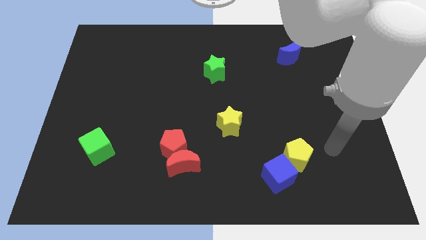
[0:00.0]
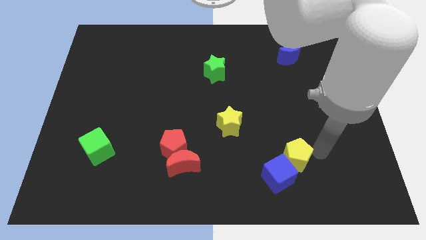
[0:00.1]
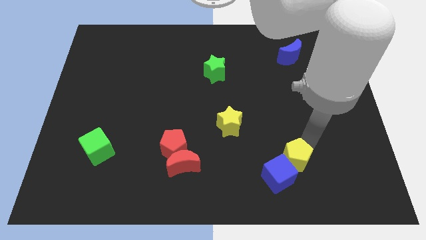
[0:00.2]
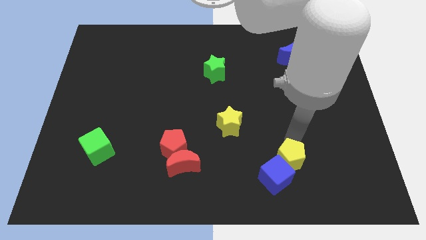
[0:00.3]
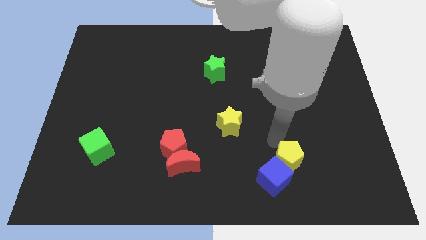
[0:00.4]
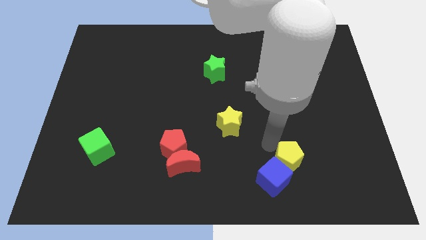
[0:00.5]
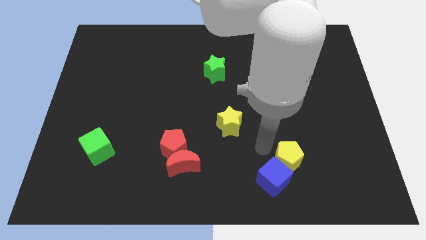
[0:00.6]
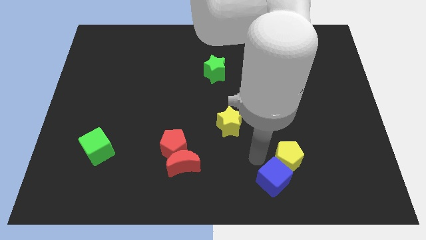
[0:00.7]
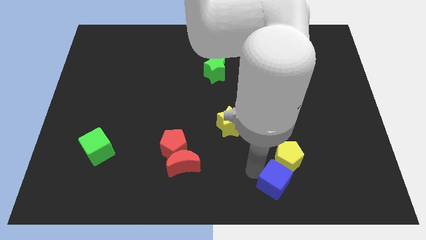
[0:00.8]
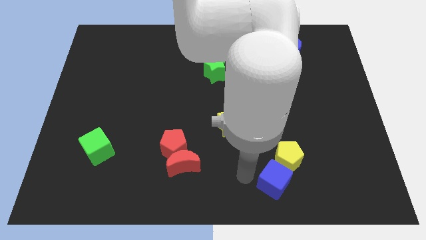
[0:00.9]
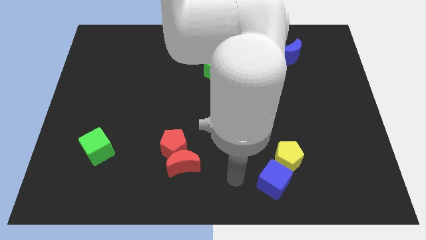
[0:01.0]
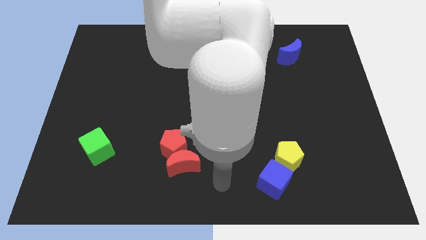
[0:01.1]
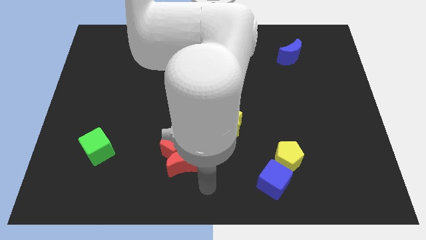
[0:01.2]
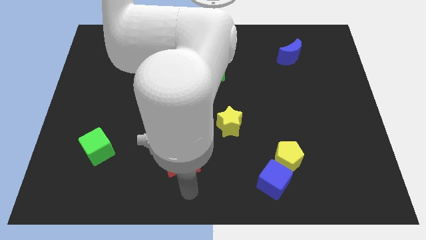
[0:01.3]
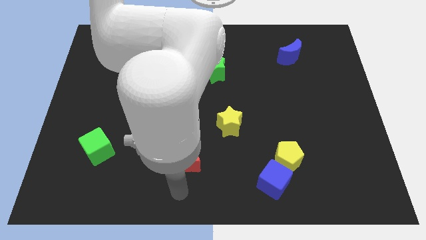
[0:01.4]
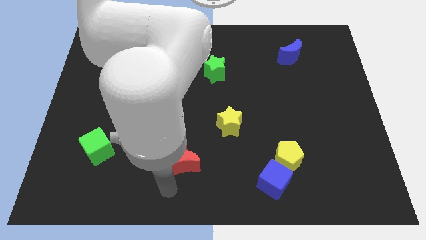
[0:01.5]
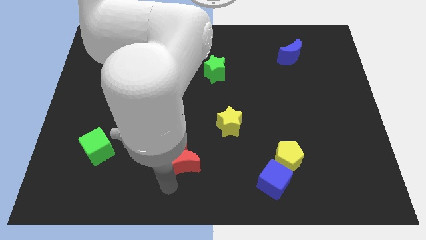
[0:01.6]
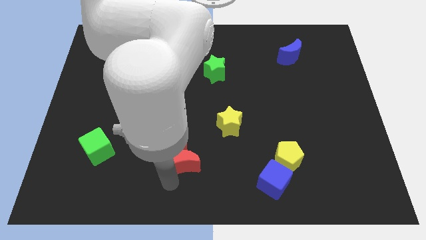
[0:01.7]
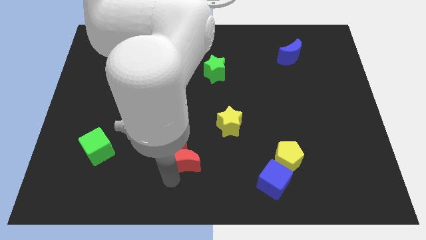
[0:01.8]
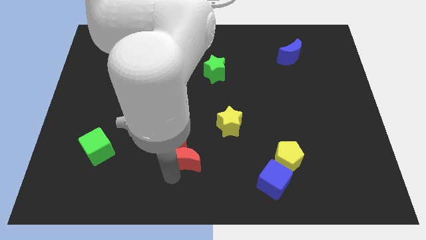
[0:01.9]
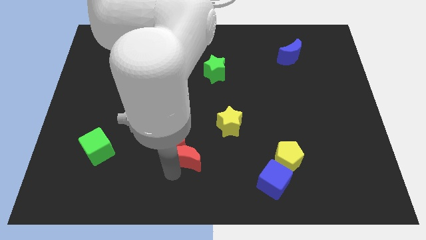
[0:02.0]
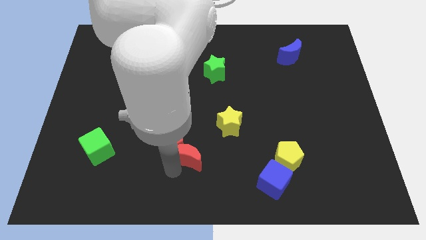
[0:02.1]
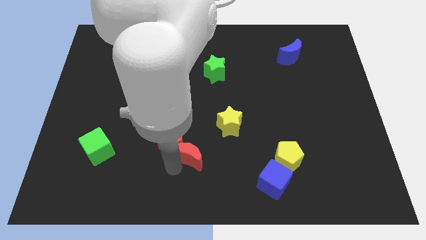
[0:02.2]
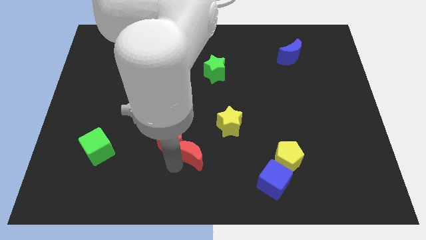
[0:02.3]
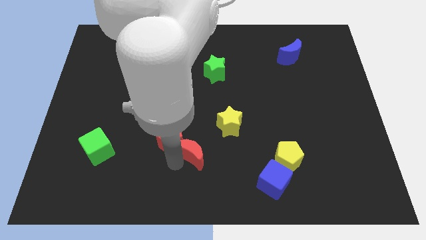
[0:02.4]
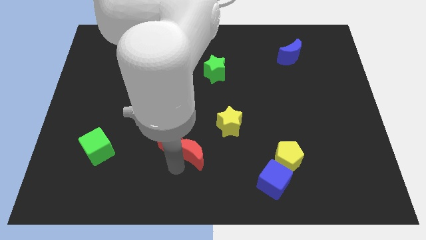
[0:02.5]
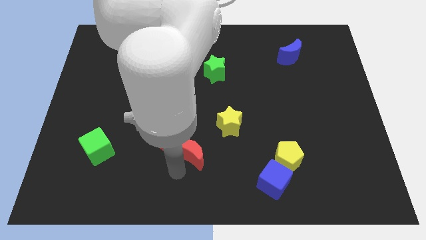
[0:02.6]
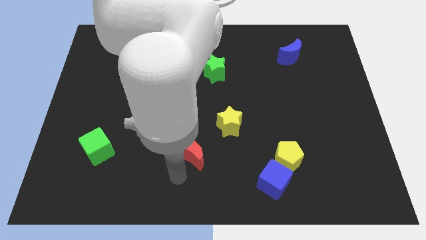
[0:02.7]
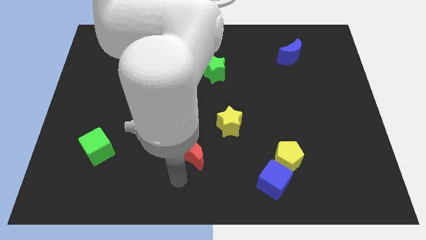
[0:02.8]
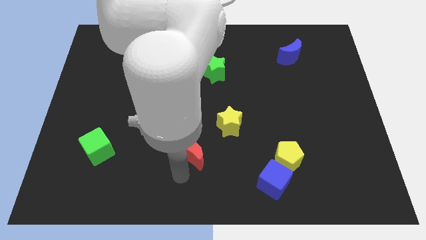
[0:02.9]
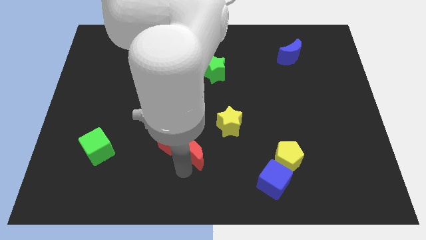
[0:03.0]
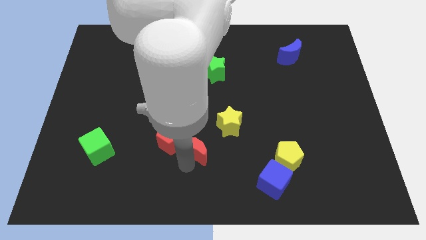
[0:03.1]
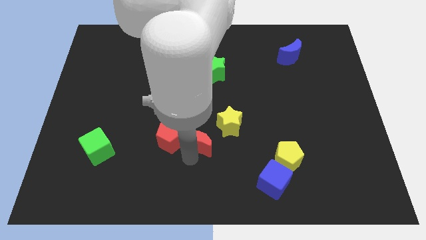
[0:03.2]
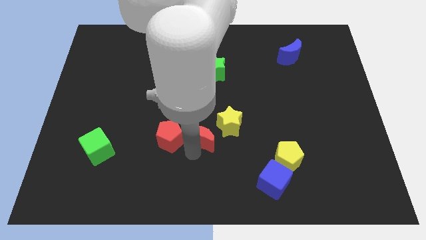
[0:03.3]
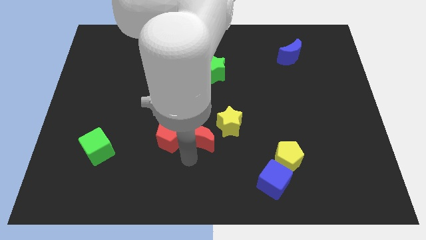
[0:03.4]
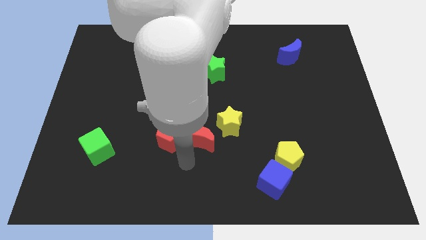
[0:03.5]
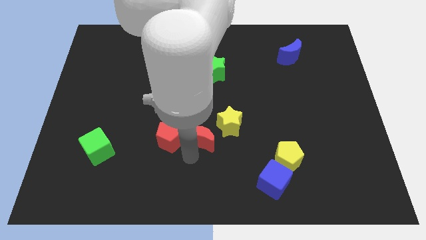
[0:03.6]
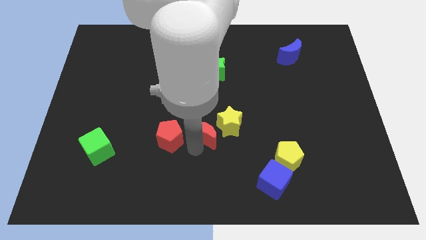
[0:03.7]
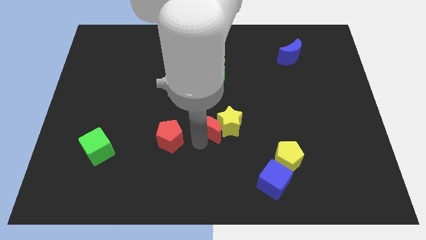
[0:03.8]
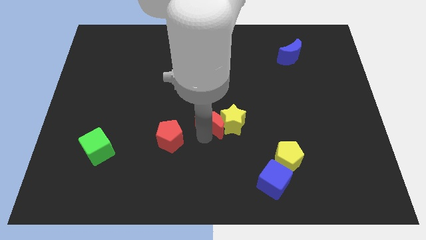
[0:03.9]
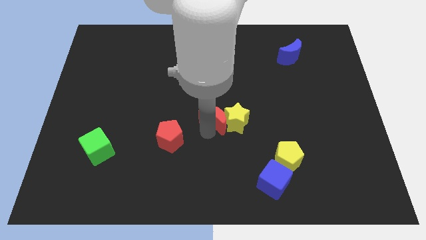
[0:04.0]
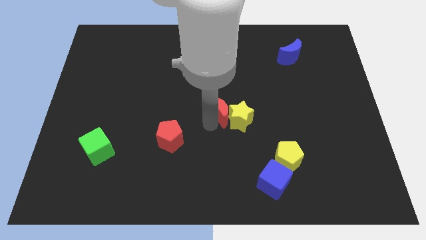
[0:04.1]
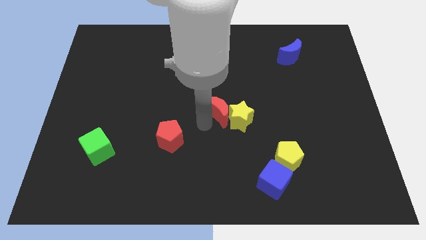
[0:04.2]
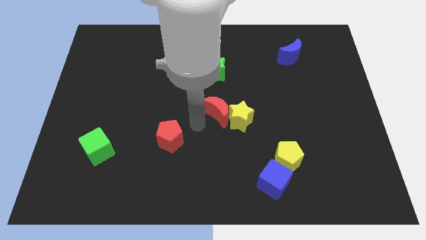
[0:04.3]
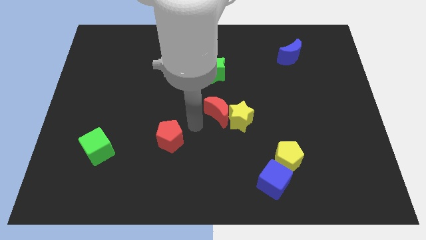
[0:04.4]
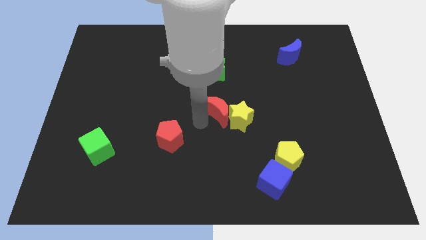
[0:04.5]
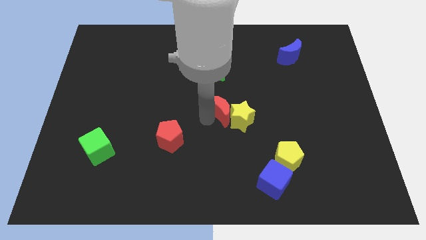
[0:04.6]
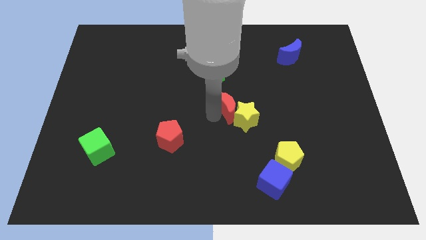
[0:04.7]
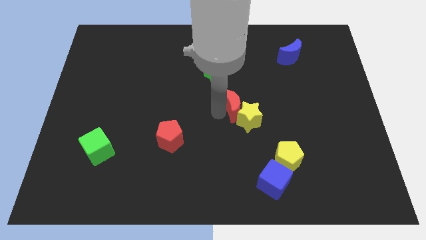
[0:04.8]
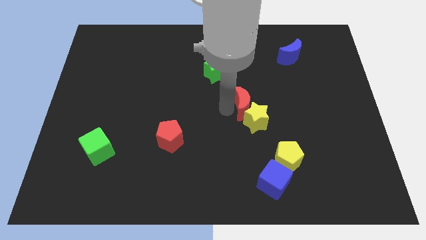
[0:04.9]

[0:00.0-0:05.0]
push the red moon up and then right

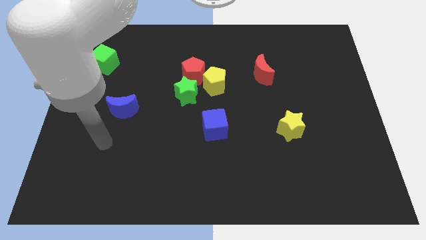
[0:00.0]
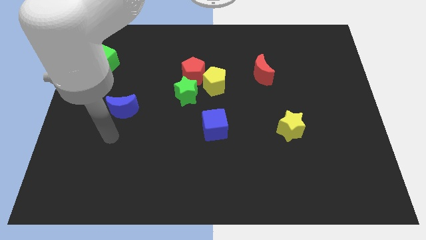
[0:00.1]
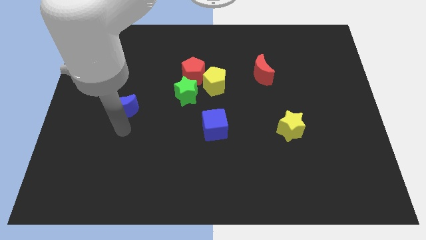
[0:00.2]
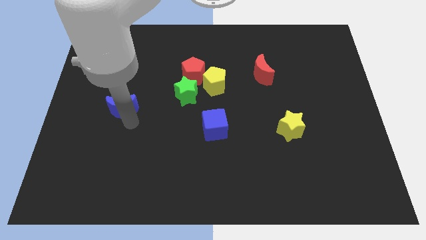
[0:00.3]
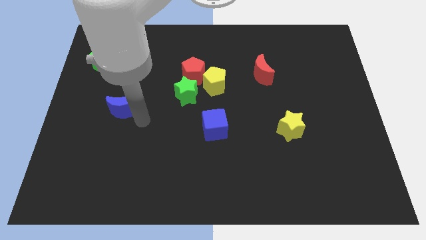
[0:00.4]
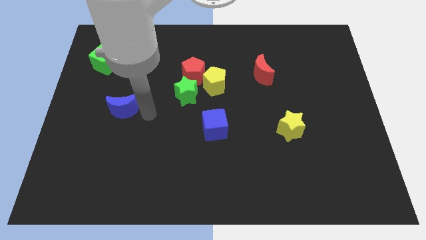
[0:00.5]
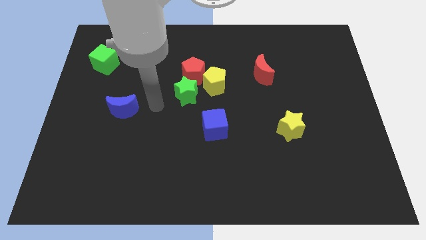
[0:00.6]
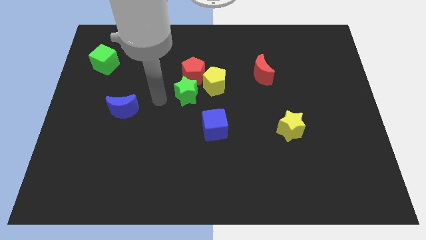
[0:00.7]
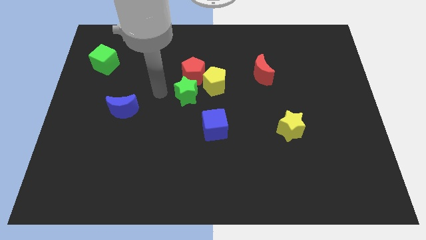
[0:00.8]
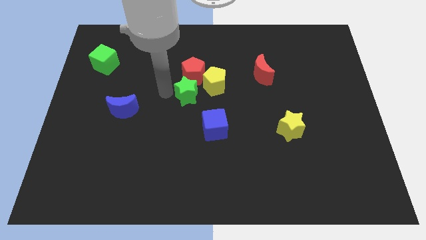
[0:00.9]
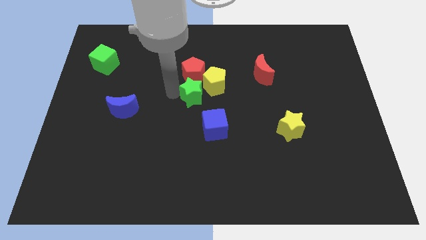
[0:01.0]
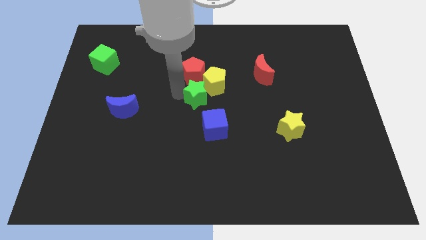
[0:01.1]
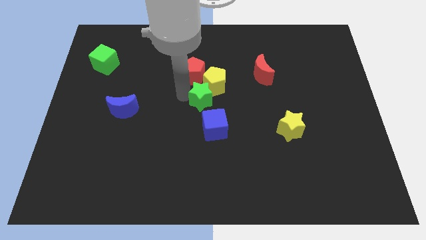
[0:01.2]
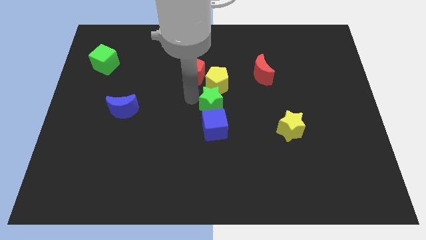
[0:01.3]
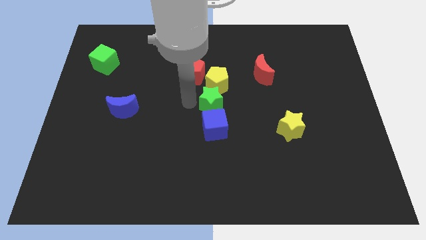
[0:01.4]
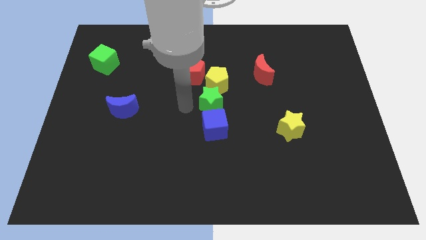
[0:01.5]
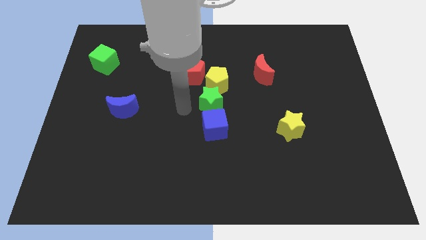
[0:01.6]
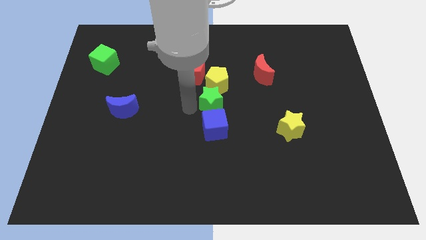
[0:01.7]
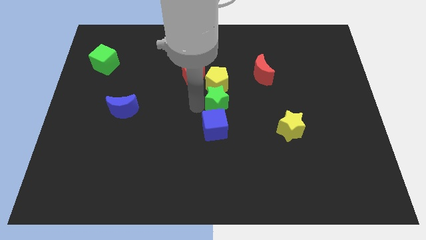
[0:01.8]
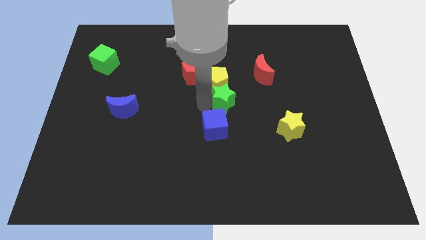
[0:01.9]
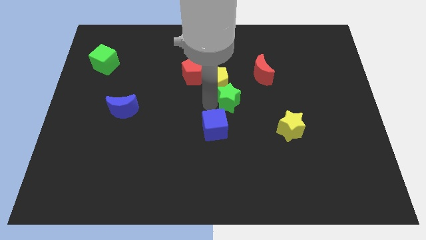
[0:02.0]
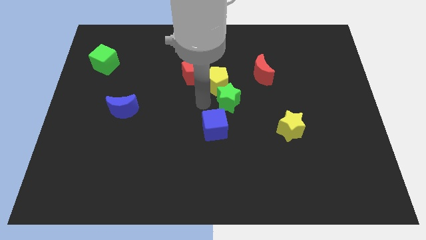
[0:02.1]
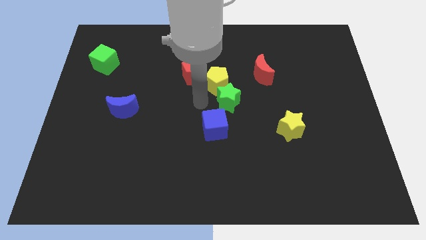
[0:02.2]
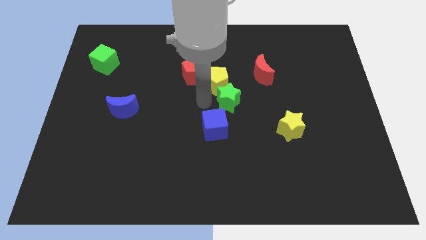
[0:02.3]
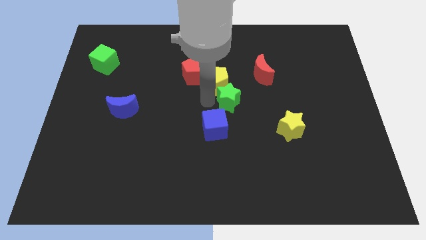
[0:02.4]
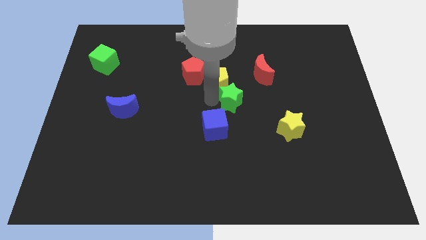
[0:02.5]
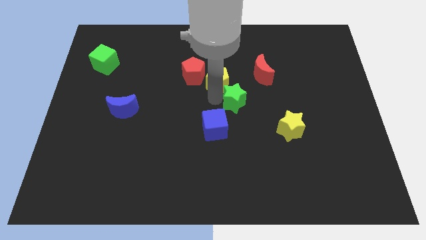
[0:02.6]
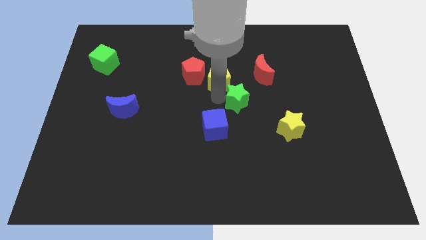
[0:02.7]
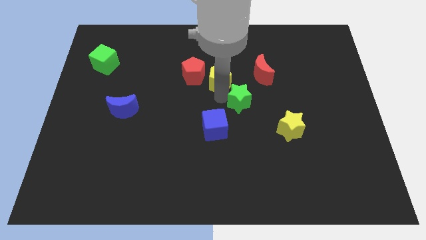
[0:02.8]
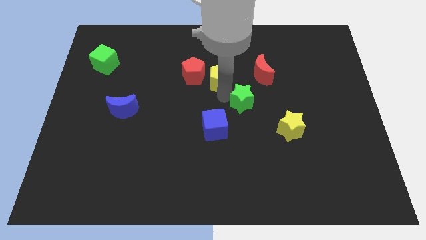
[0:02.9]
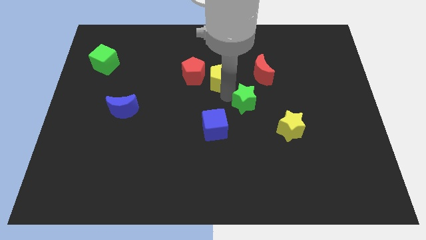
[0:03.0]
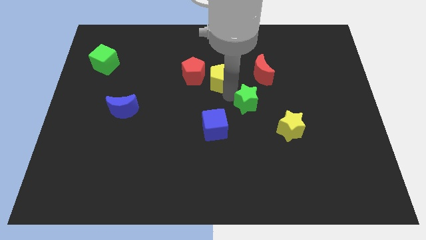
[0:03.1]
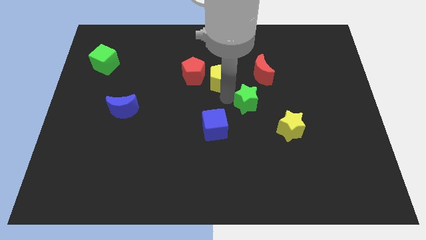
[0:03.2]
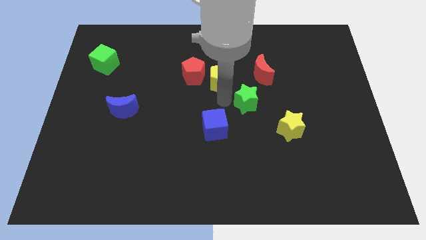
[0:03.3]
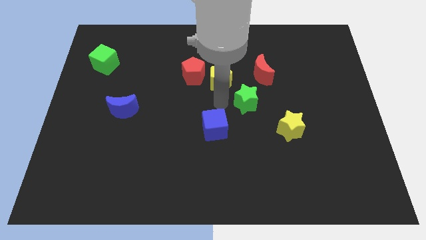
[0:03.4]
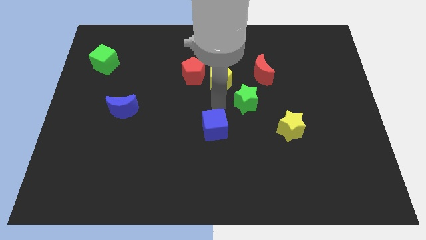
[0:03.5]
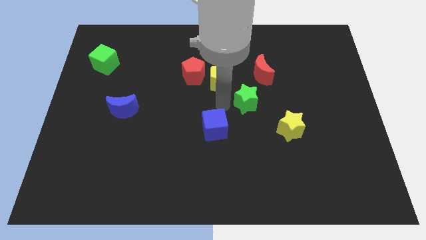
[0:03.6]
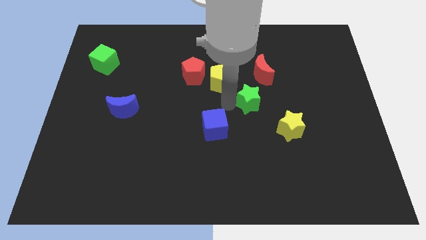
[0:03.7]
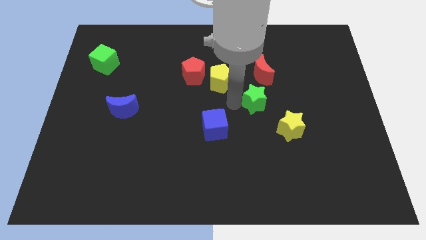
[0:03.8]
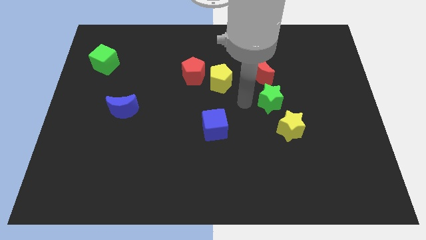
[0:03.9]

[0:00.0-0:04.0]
move the green star right
